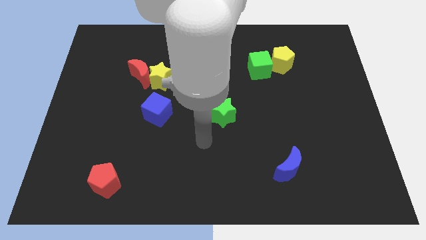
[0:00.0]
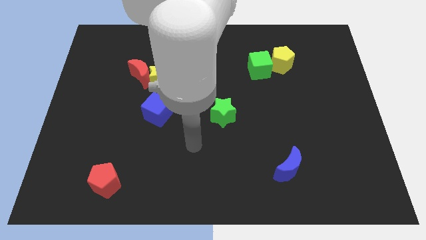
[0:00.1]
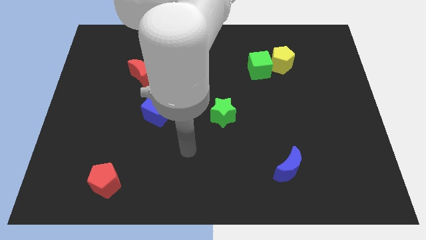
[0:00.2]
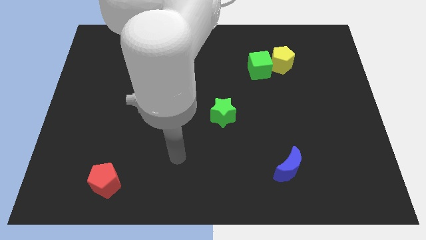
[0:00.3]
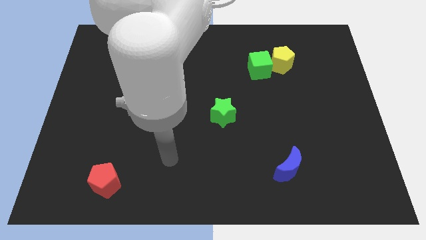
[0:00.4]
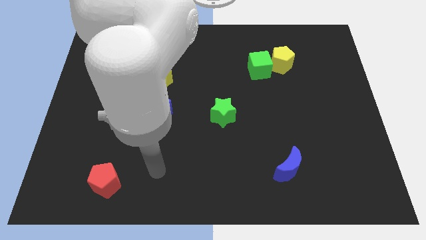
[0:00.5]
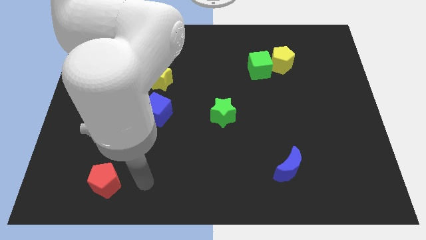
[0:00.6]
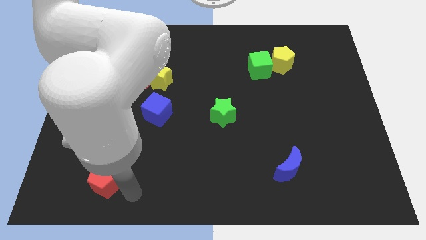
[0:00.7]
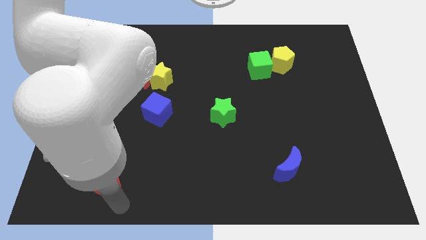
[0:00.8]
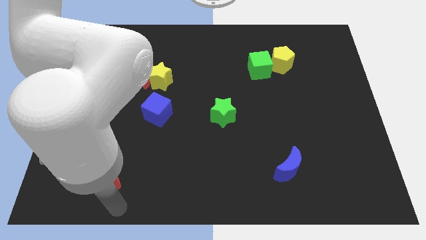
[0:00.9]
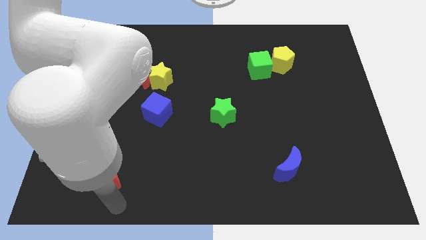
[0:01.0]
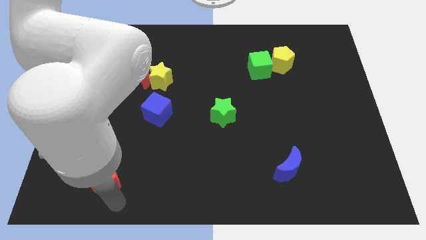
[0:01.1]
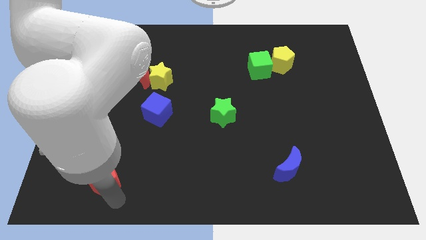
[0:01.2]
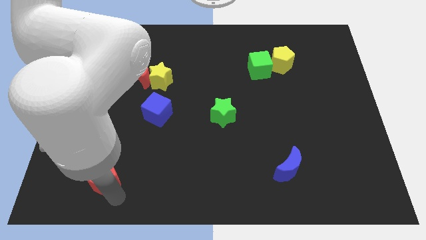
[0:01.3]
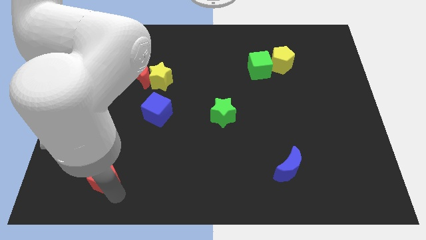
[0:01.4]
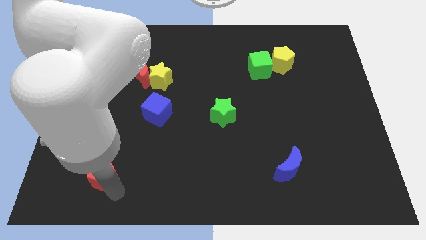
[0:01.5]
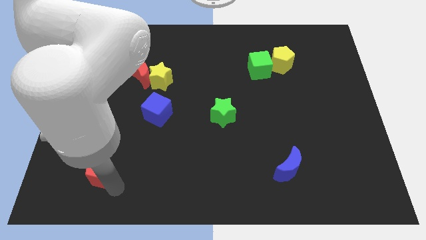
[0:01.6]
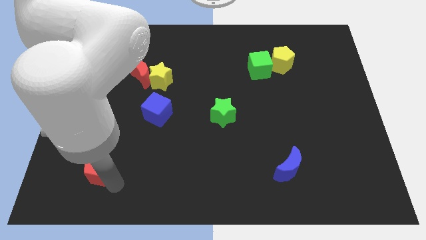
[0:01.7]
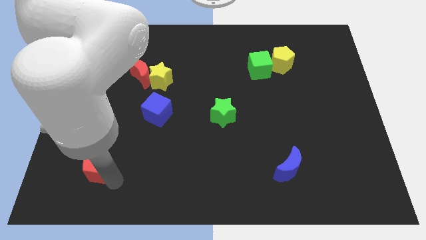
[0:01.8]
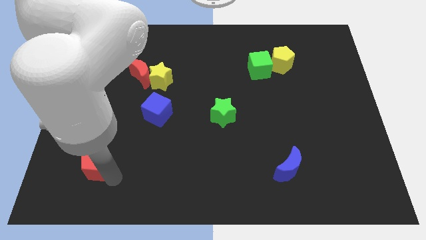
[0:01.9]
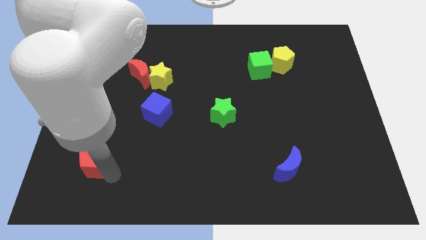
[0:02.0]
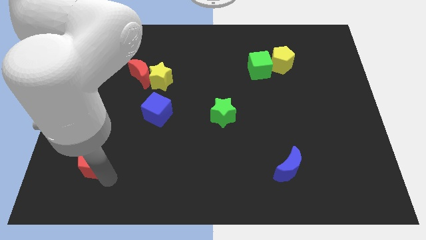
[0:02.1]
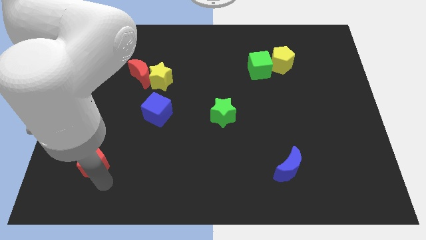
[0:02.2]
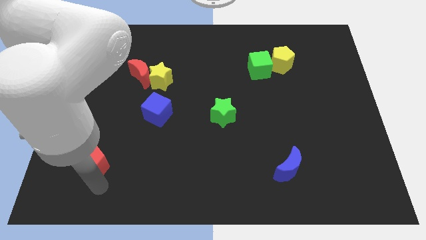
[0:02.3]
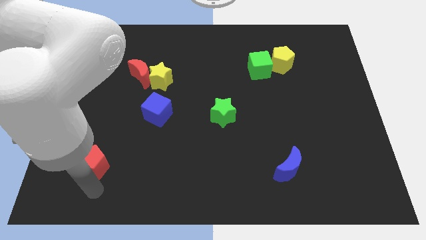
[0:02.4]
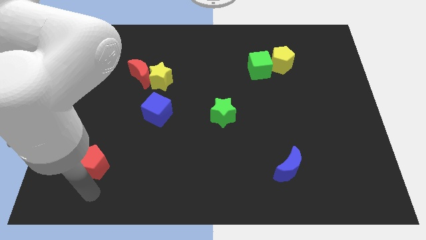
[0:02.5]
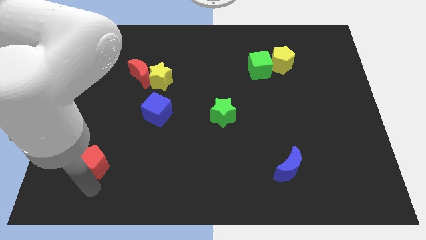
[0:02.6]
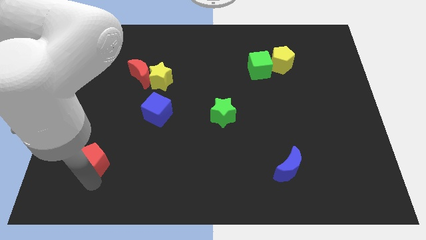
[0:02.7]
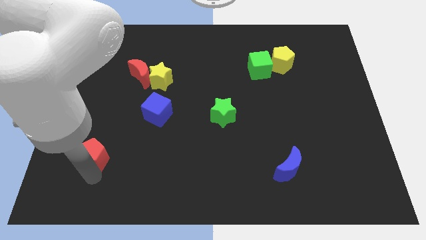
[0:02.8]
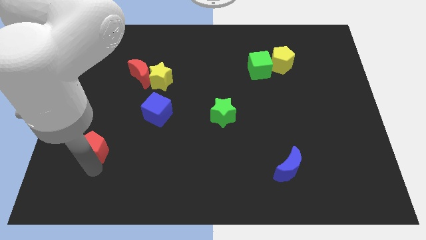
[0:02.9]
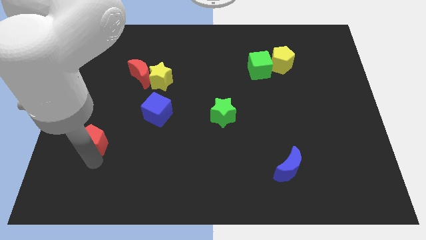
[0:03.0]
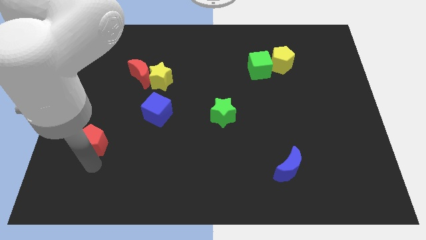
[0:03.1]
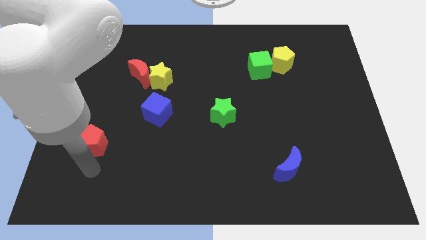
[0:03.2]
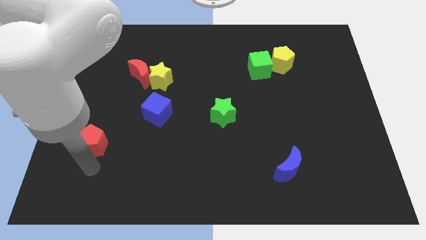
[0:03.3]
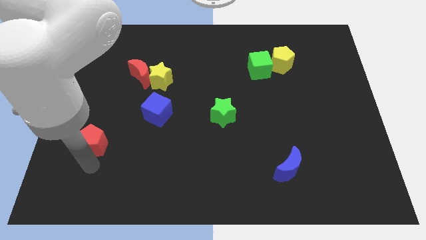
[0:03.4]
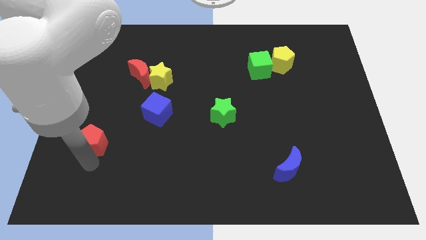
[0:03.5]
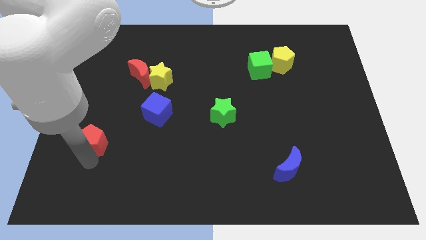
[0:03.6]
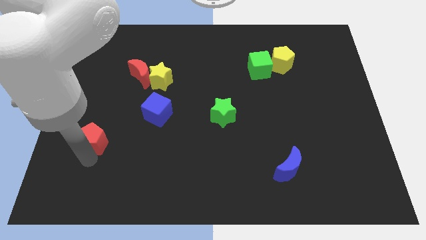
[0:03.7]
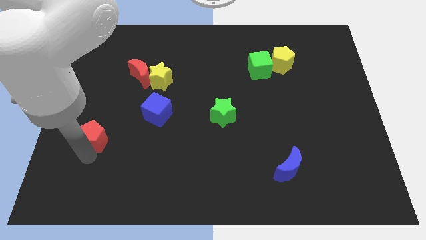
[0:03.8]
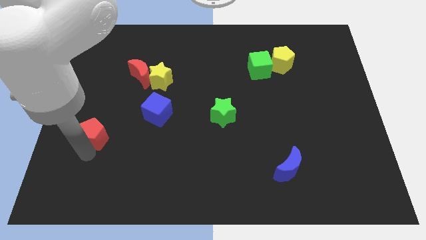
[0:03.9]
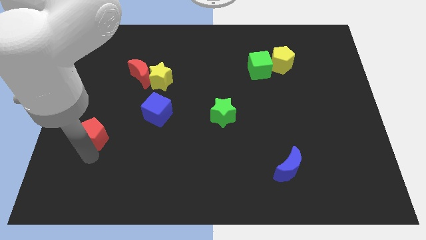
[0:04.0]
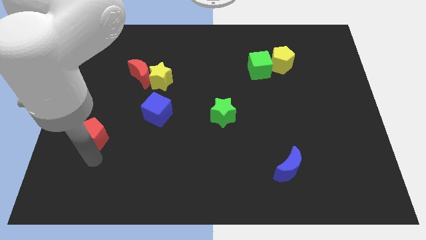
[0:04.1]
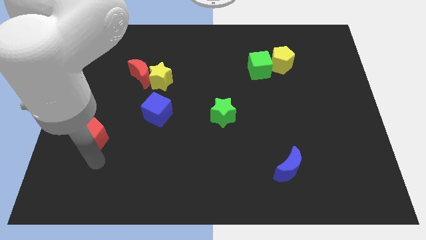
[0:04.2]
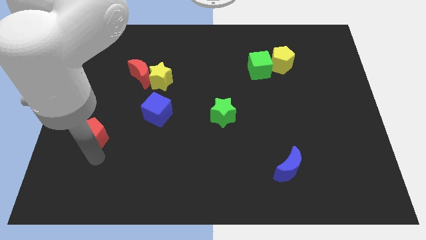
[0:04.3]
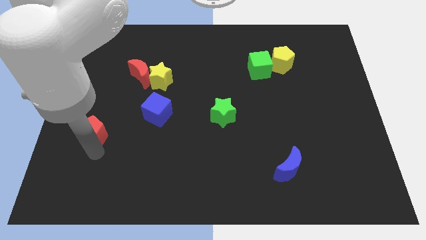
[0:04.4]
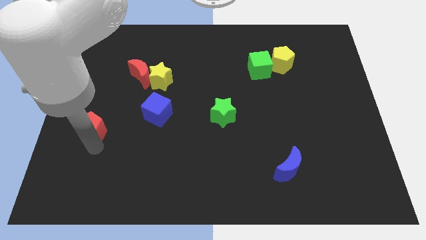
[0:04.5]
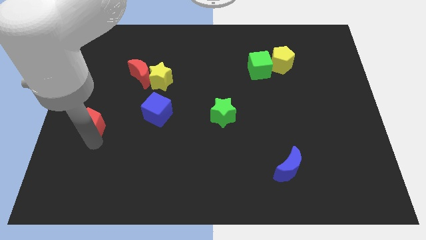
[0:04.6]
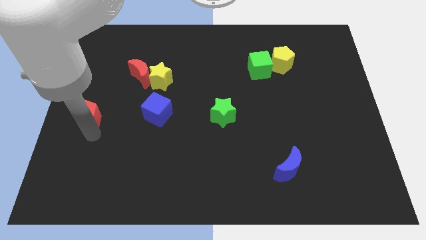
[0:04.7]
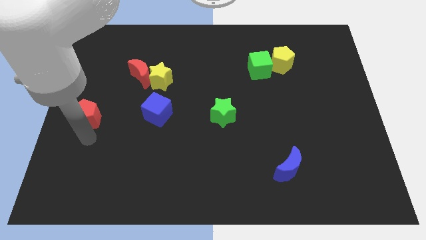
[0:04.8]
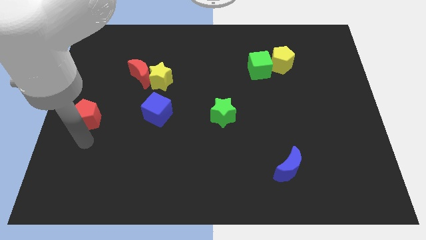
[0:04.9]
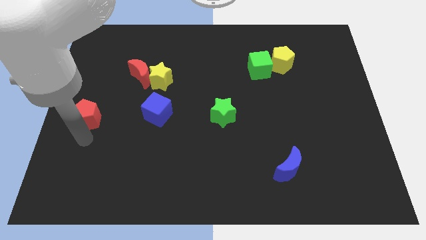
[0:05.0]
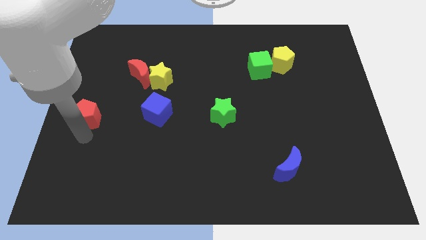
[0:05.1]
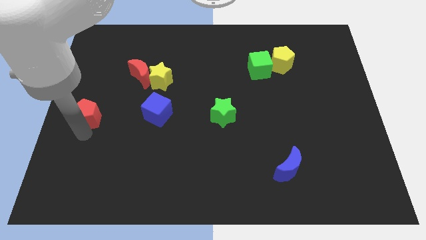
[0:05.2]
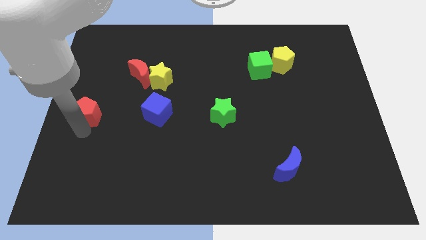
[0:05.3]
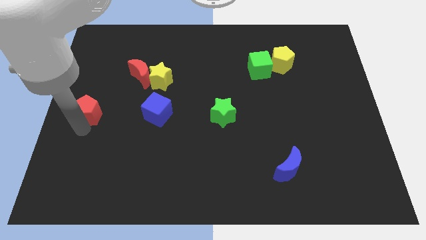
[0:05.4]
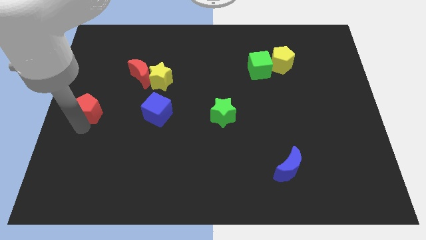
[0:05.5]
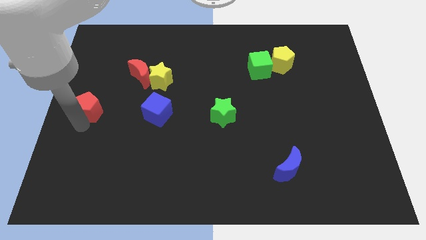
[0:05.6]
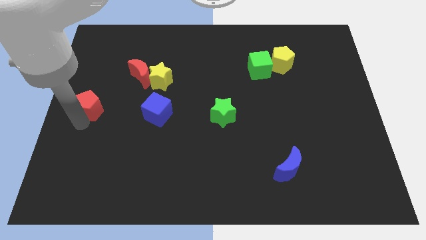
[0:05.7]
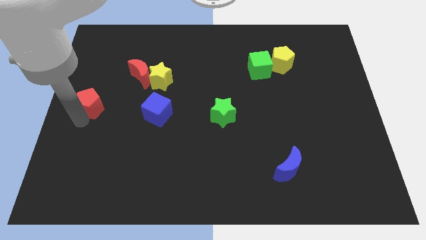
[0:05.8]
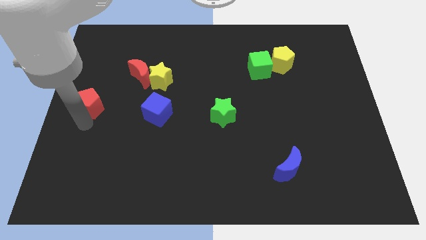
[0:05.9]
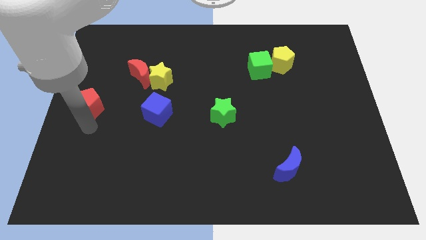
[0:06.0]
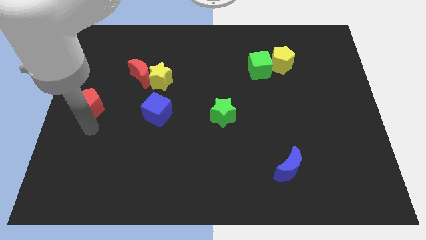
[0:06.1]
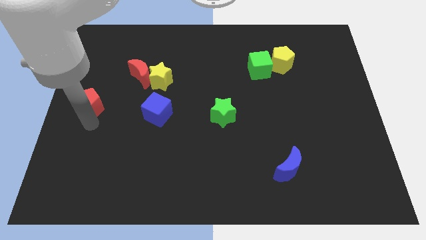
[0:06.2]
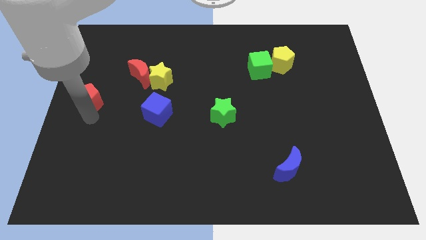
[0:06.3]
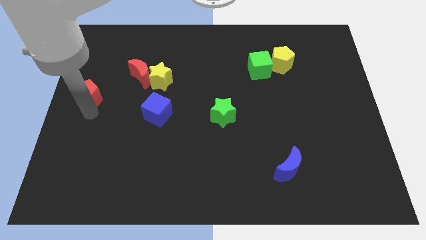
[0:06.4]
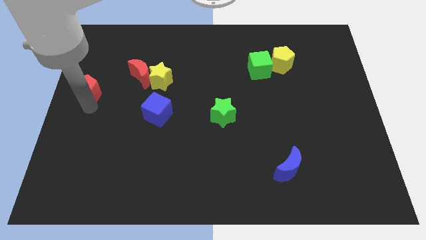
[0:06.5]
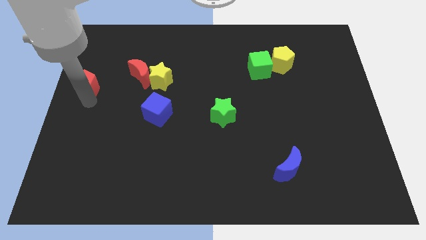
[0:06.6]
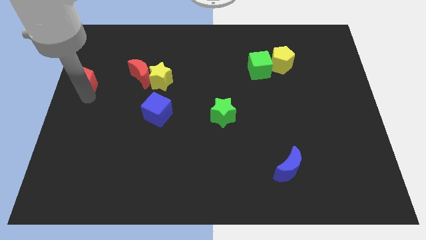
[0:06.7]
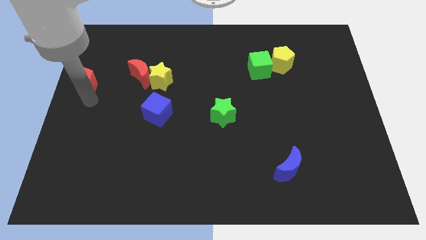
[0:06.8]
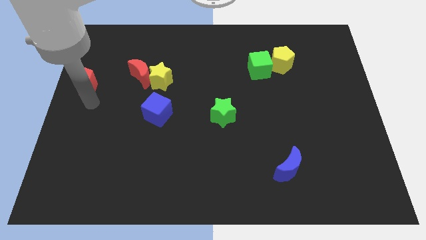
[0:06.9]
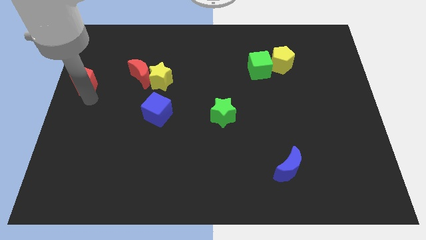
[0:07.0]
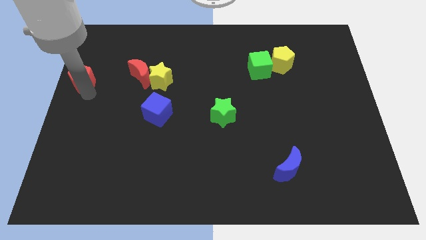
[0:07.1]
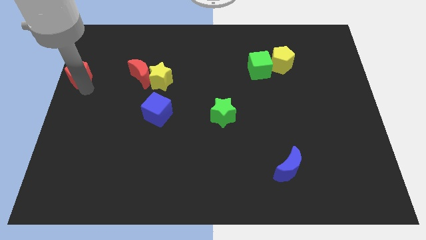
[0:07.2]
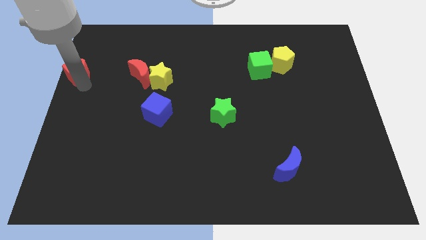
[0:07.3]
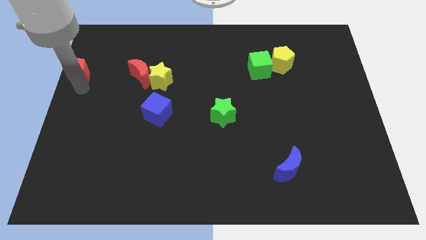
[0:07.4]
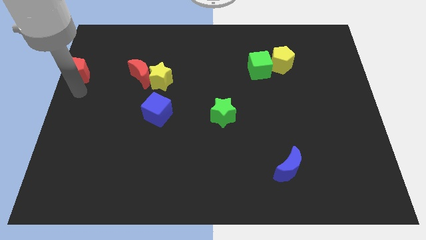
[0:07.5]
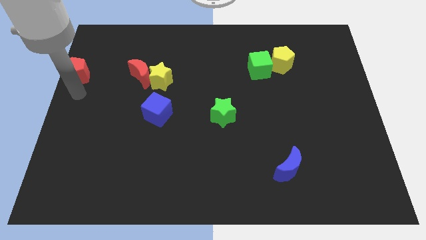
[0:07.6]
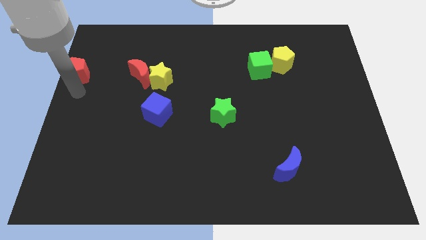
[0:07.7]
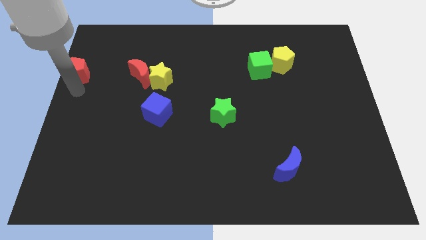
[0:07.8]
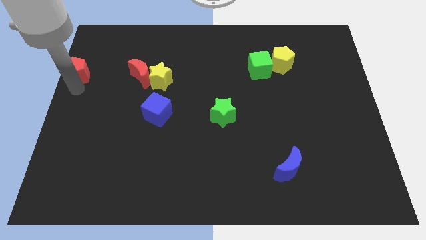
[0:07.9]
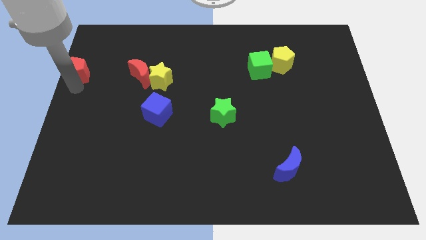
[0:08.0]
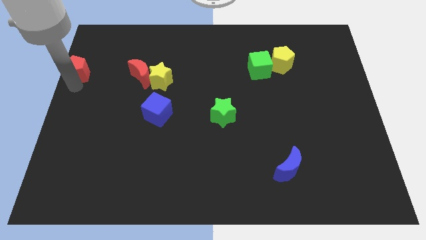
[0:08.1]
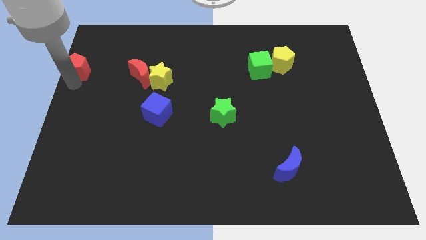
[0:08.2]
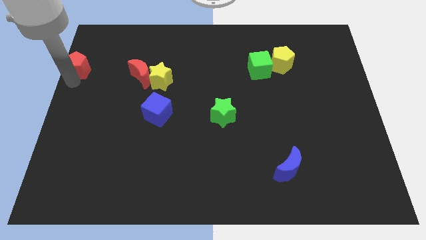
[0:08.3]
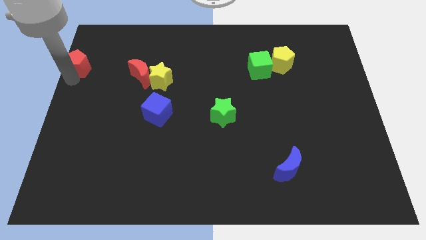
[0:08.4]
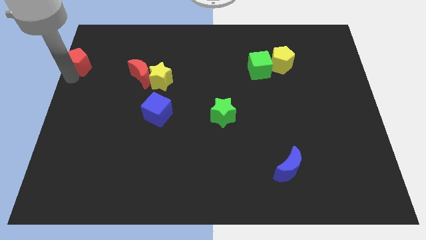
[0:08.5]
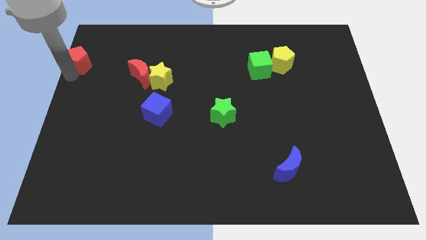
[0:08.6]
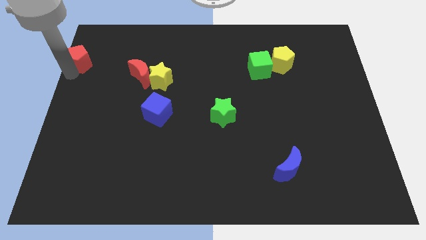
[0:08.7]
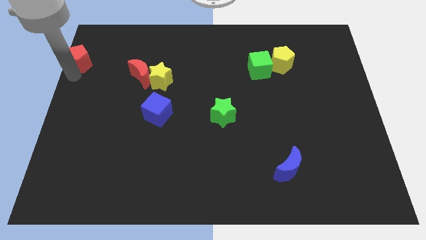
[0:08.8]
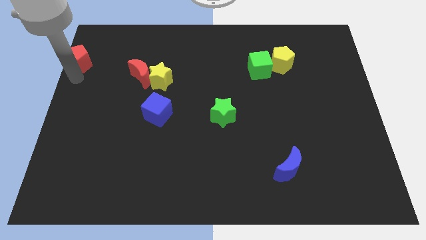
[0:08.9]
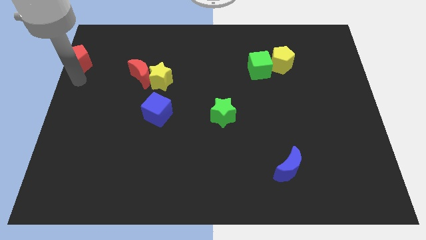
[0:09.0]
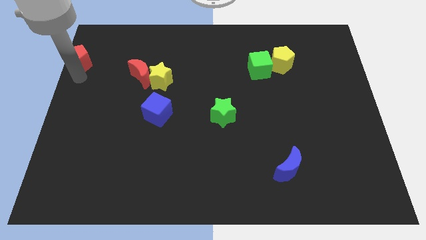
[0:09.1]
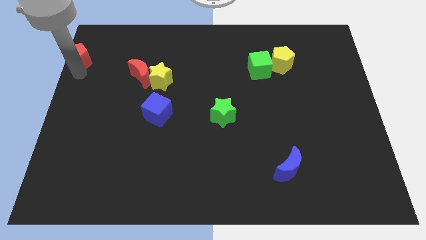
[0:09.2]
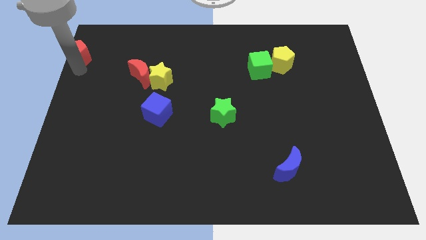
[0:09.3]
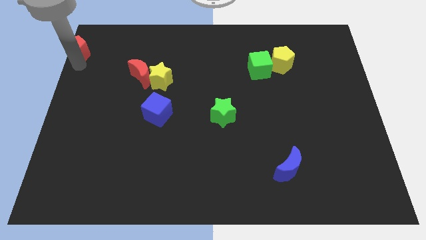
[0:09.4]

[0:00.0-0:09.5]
slide the red pentagon to the top left of the board
